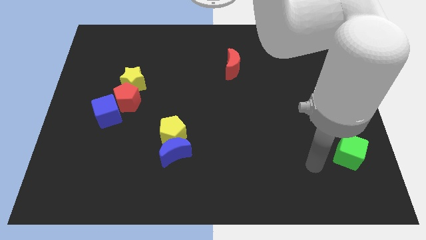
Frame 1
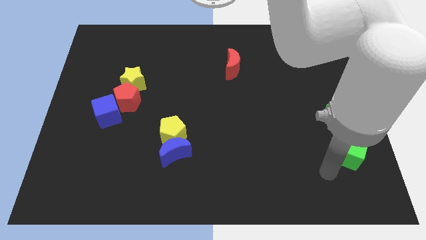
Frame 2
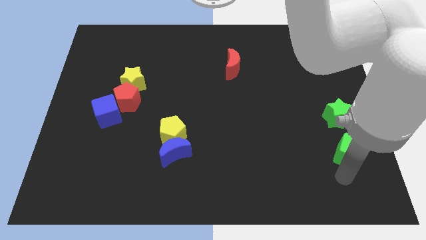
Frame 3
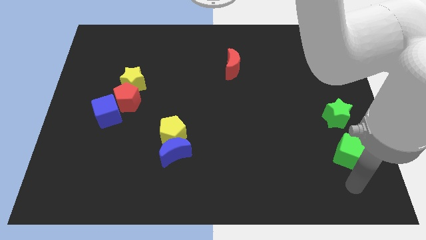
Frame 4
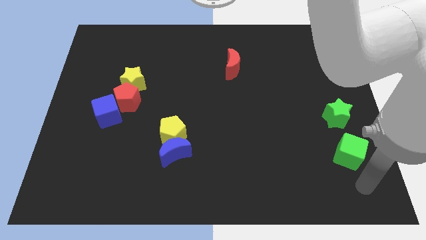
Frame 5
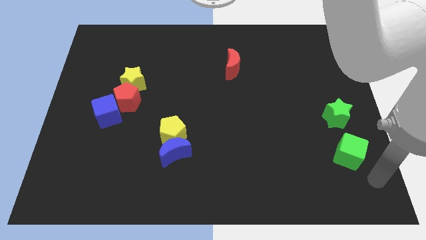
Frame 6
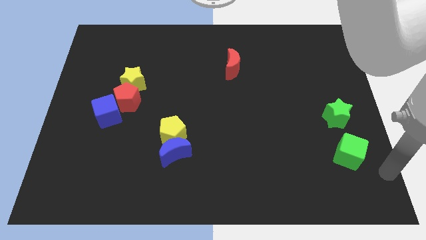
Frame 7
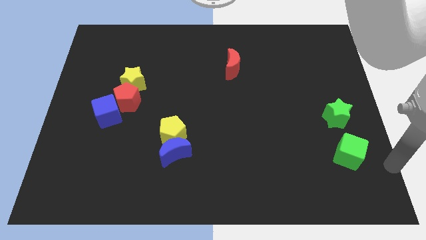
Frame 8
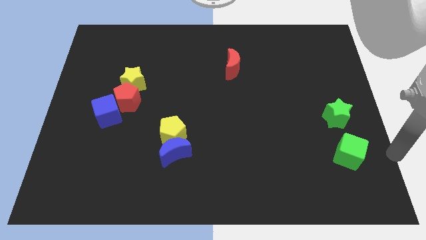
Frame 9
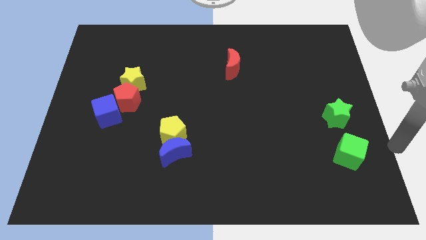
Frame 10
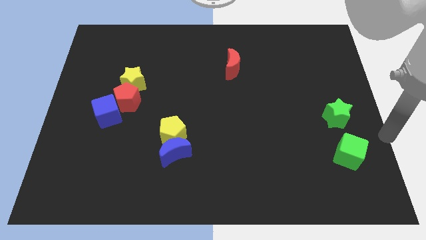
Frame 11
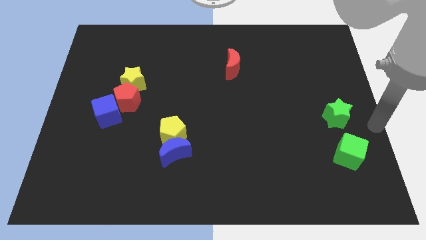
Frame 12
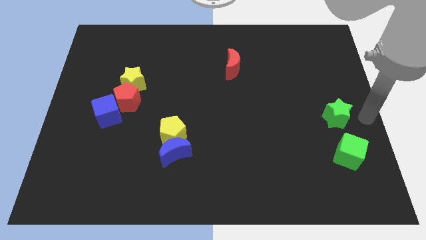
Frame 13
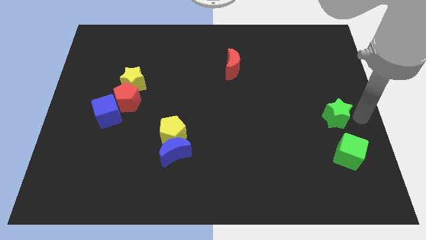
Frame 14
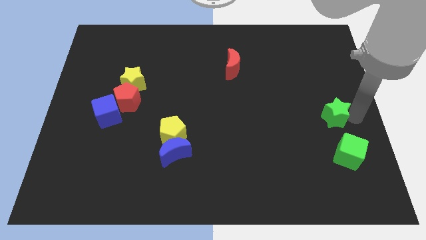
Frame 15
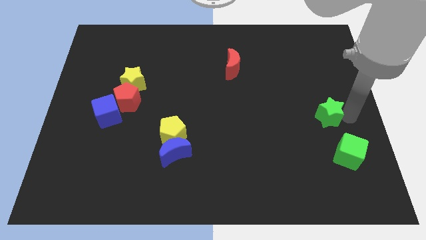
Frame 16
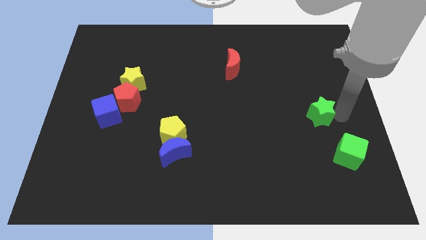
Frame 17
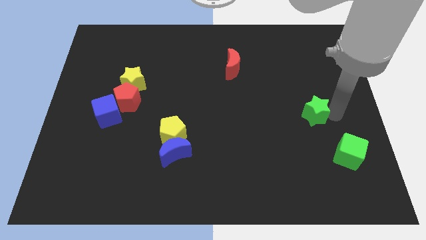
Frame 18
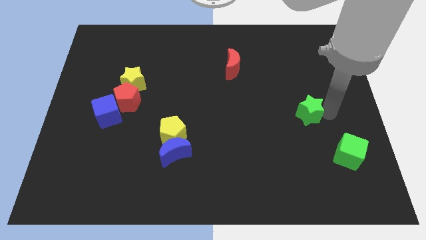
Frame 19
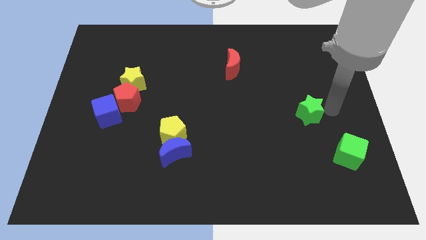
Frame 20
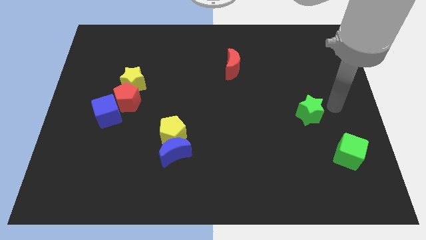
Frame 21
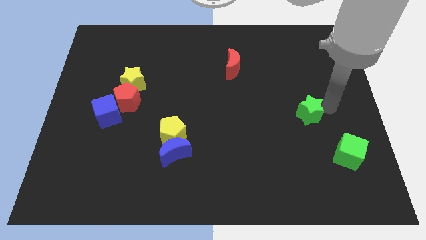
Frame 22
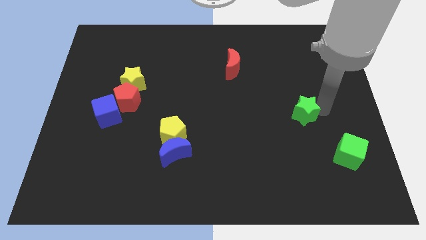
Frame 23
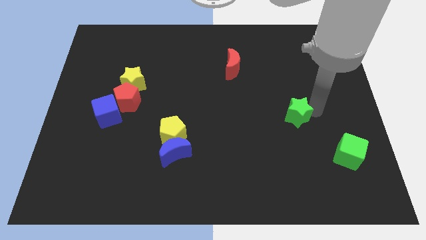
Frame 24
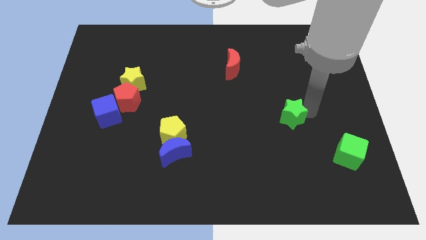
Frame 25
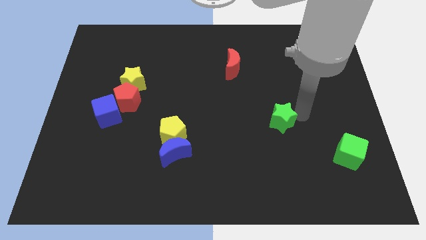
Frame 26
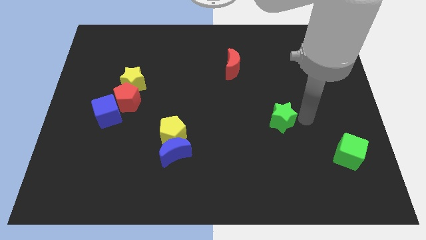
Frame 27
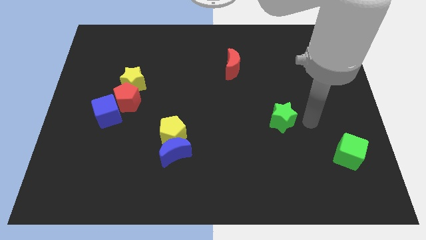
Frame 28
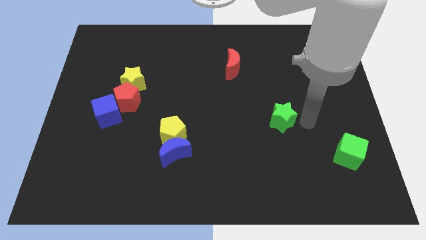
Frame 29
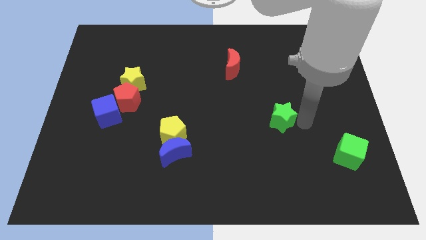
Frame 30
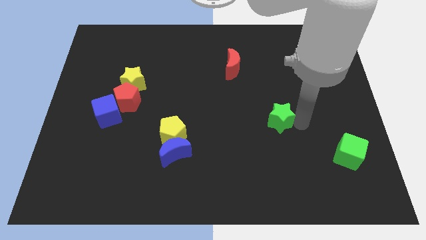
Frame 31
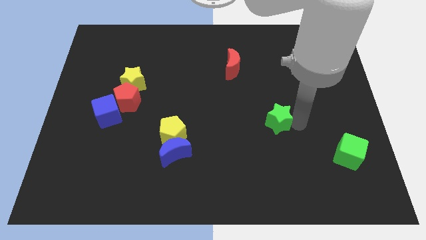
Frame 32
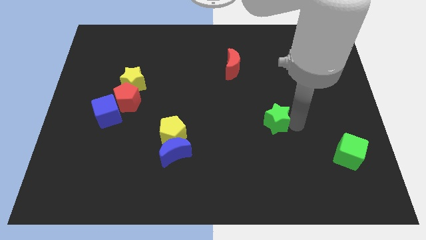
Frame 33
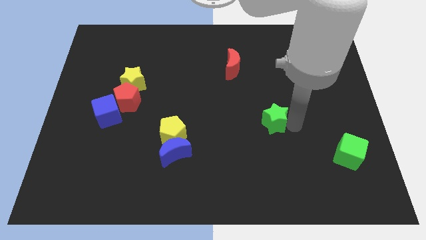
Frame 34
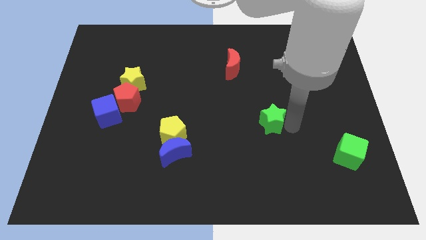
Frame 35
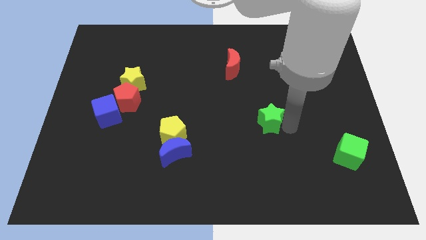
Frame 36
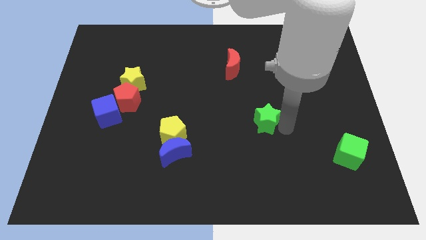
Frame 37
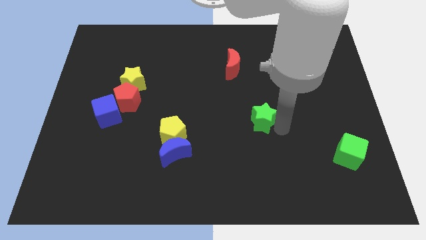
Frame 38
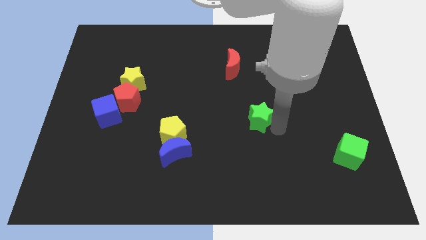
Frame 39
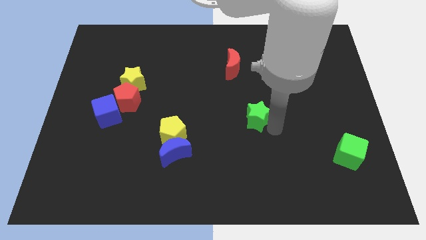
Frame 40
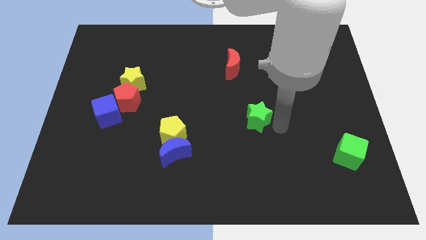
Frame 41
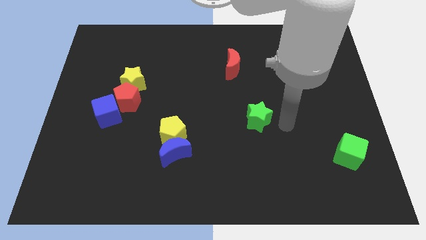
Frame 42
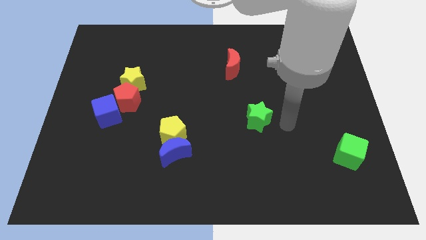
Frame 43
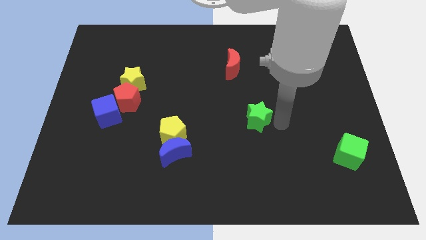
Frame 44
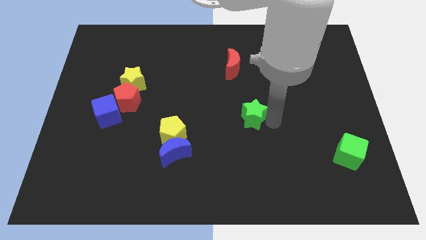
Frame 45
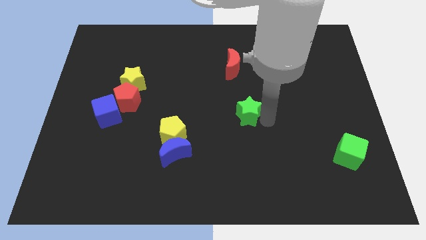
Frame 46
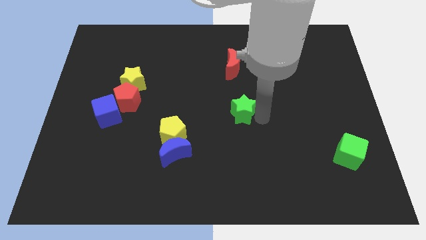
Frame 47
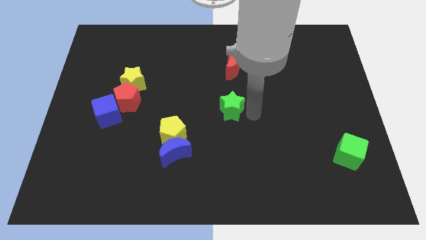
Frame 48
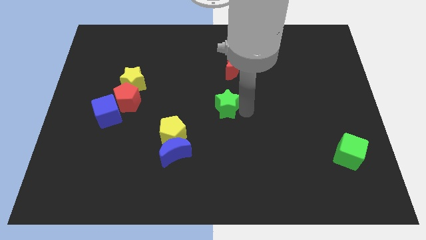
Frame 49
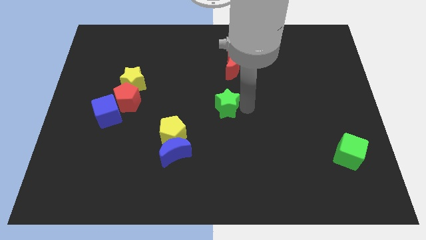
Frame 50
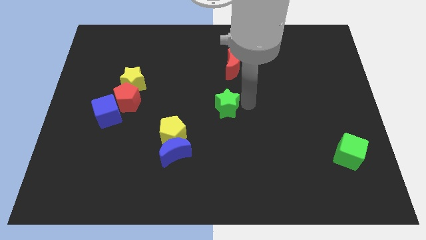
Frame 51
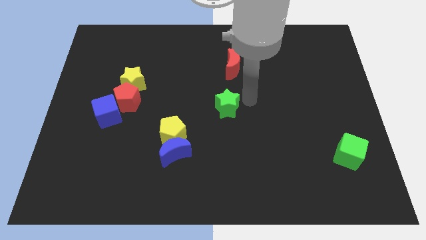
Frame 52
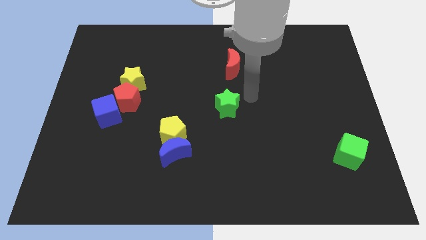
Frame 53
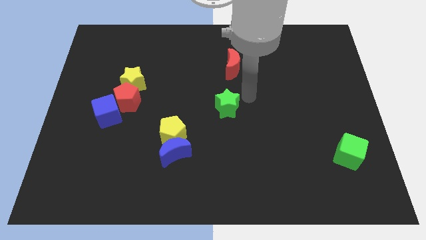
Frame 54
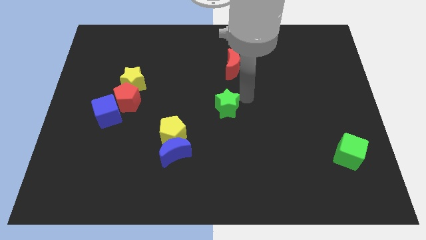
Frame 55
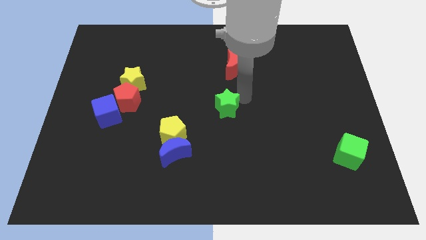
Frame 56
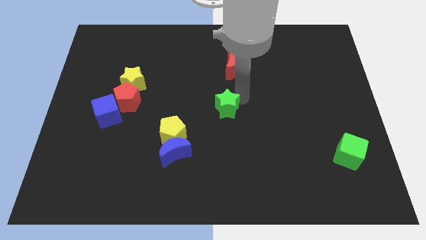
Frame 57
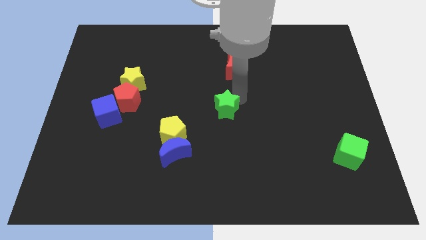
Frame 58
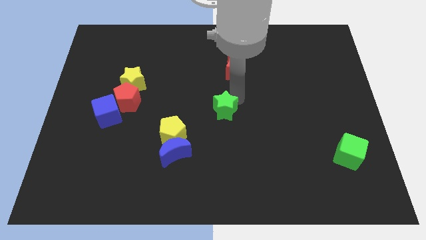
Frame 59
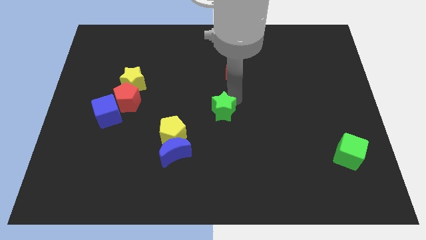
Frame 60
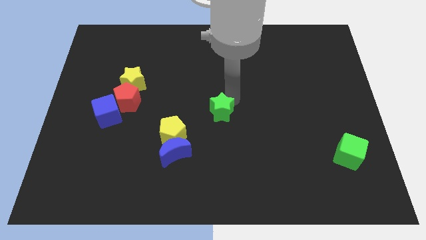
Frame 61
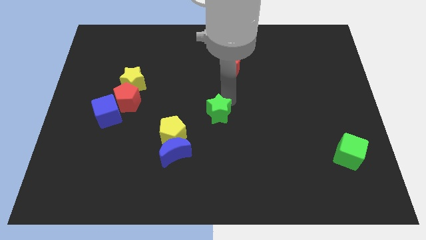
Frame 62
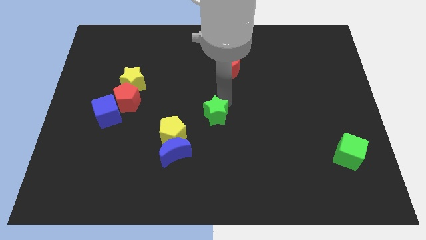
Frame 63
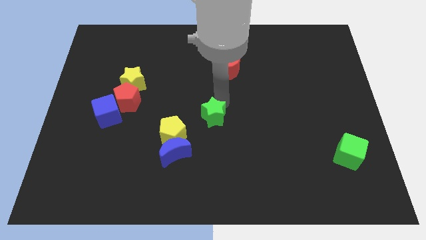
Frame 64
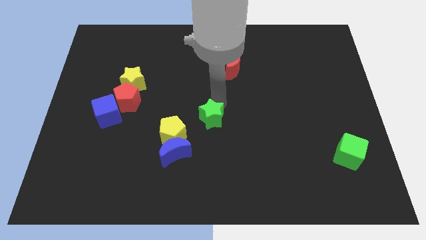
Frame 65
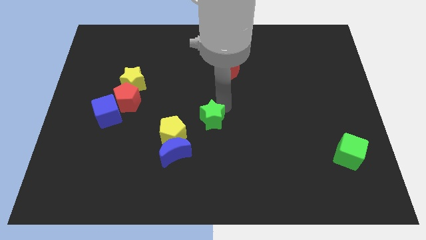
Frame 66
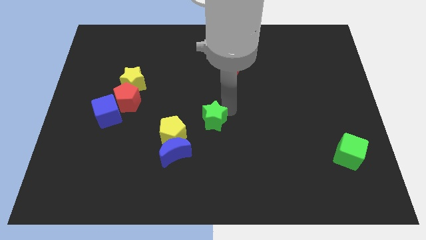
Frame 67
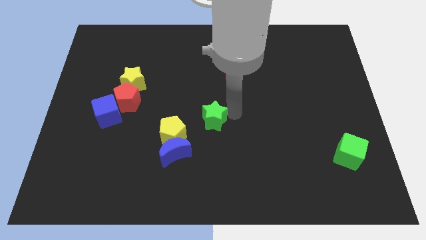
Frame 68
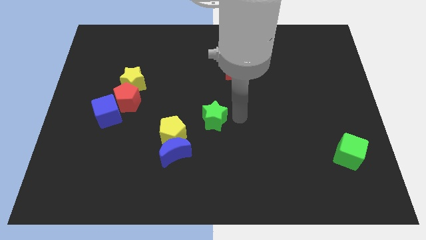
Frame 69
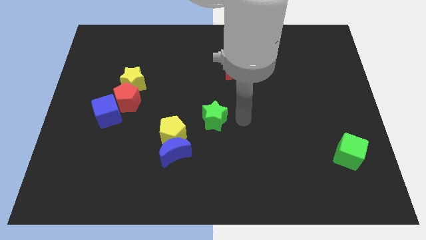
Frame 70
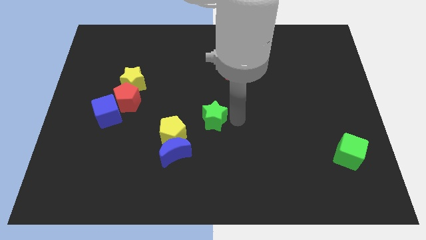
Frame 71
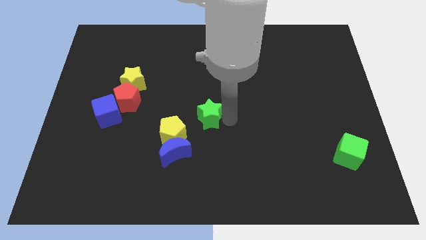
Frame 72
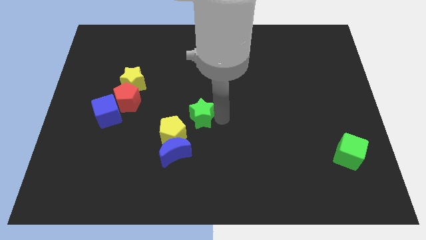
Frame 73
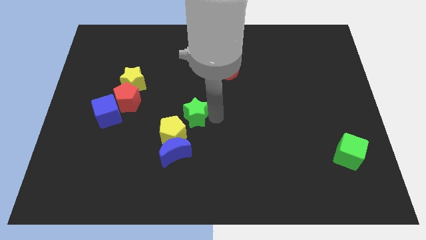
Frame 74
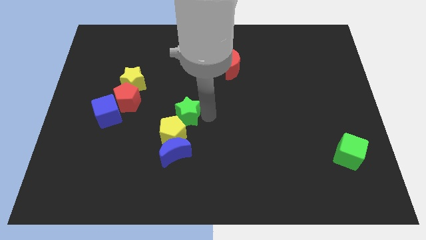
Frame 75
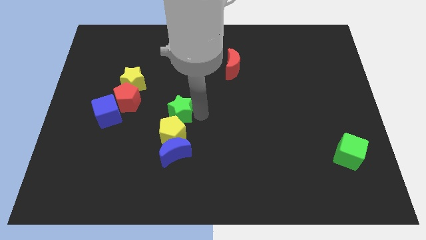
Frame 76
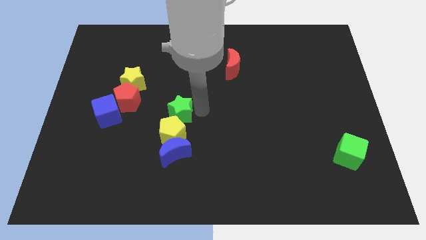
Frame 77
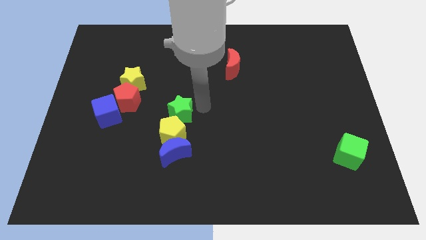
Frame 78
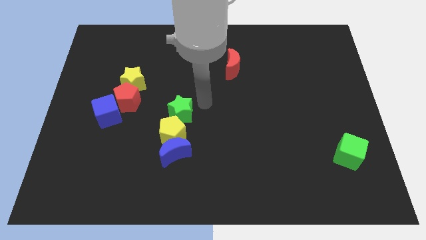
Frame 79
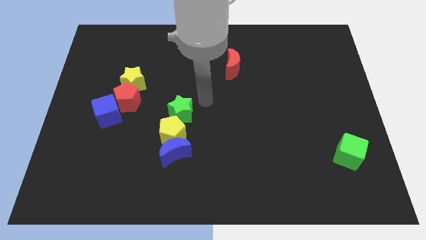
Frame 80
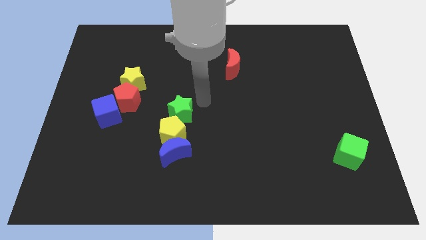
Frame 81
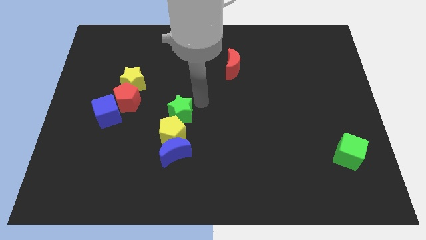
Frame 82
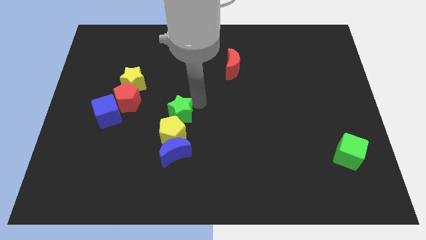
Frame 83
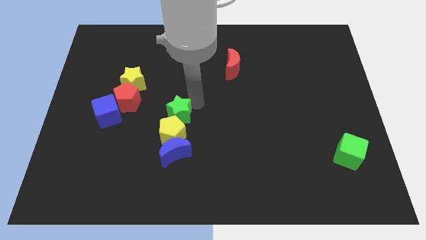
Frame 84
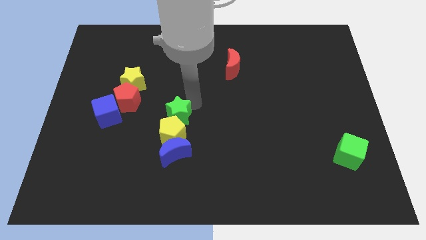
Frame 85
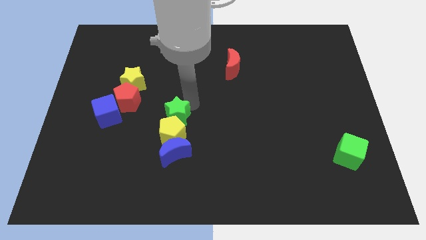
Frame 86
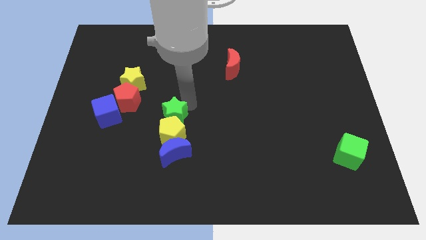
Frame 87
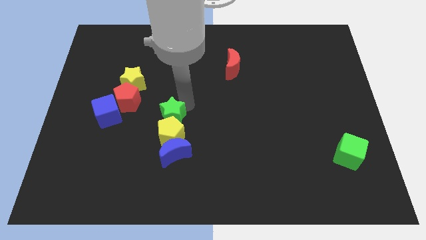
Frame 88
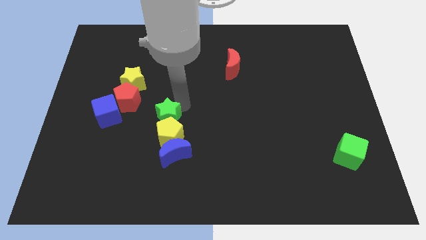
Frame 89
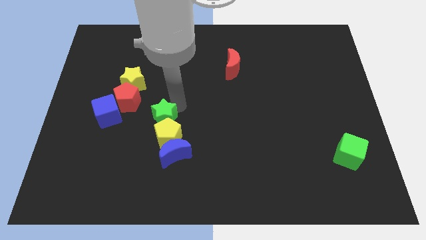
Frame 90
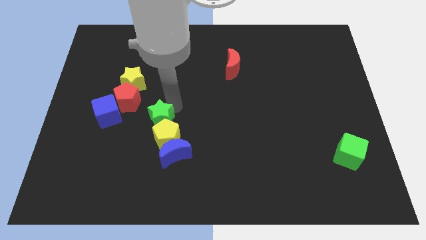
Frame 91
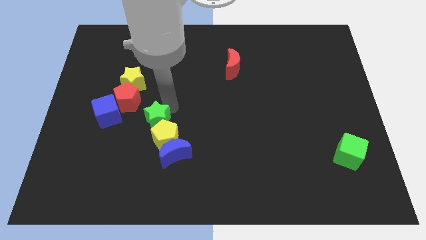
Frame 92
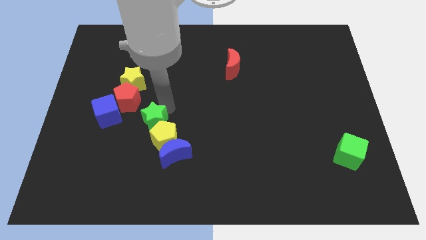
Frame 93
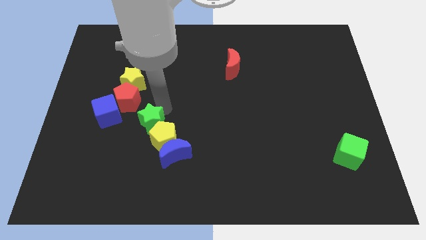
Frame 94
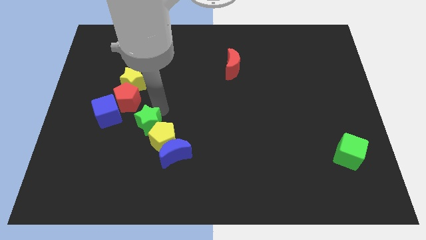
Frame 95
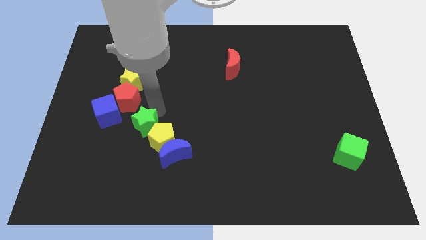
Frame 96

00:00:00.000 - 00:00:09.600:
slide the green star diagonally down and to the right of the blue cube
